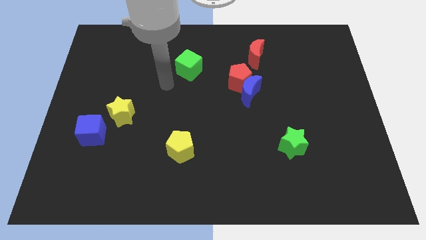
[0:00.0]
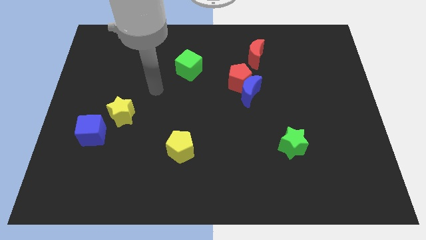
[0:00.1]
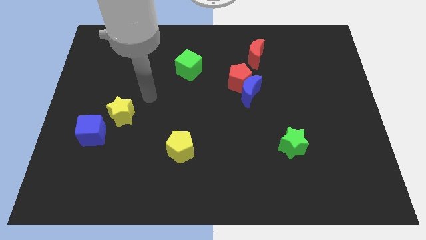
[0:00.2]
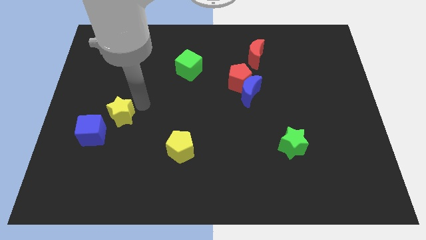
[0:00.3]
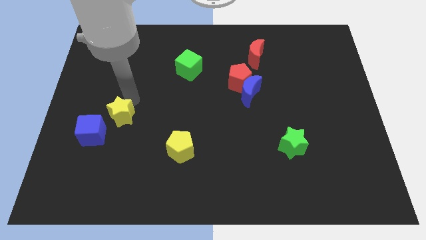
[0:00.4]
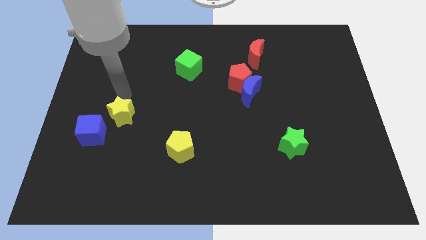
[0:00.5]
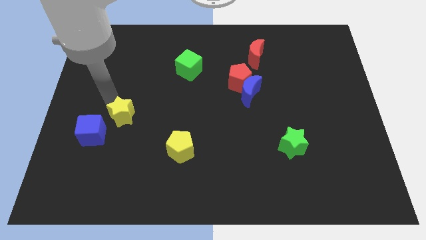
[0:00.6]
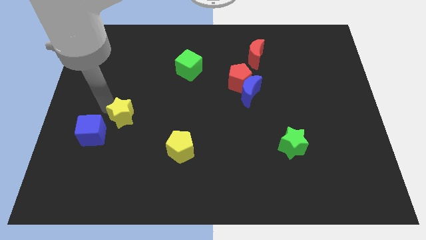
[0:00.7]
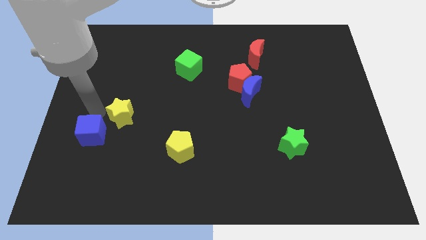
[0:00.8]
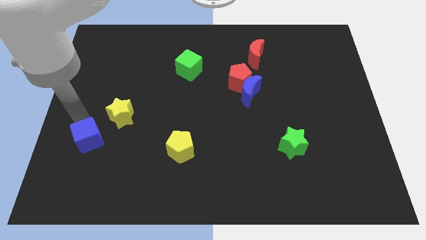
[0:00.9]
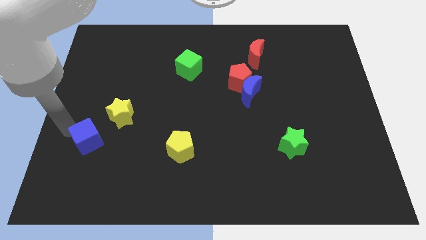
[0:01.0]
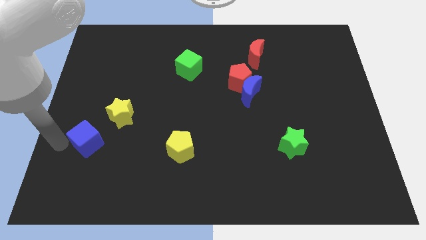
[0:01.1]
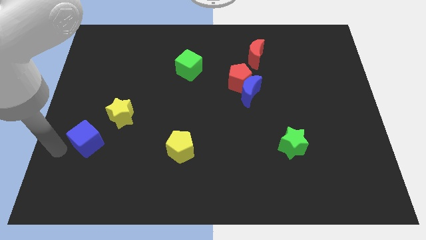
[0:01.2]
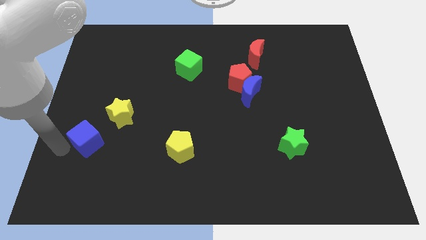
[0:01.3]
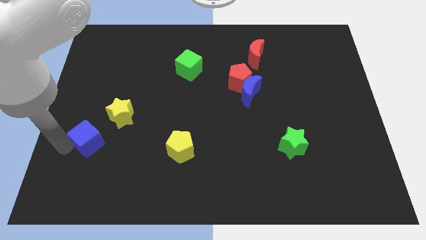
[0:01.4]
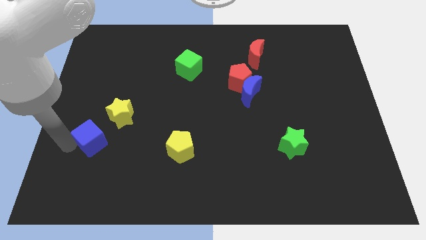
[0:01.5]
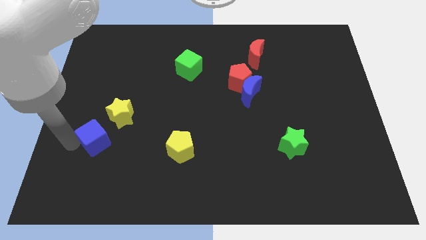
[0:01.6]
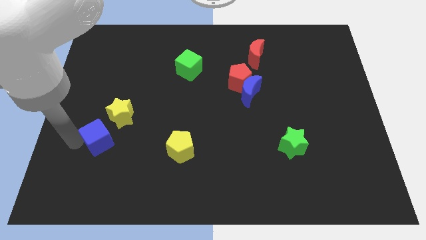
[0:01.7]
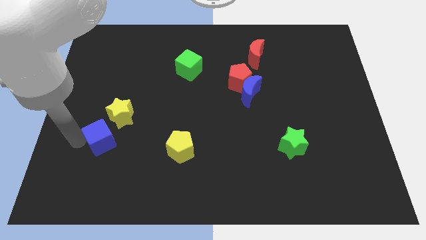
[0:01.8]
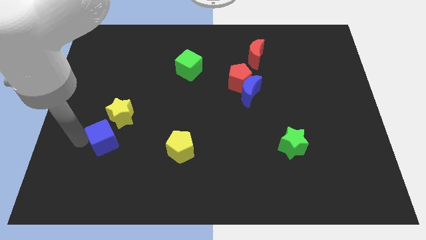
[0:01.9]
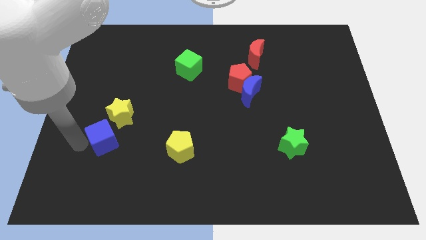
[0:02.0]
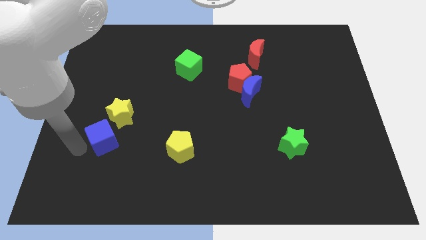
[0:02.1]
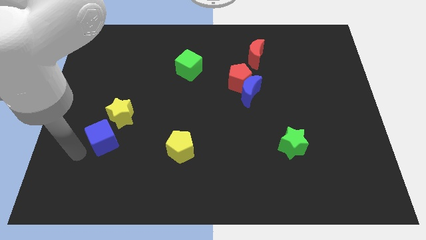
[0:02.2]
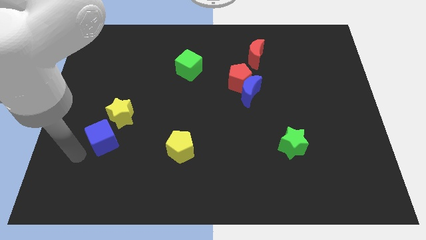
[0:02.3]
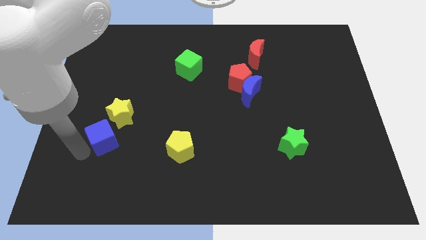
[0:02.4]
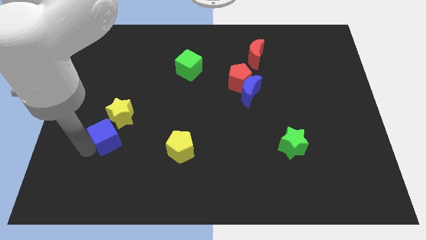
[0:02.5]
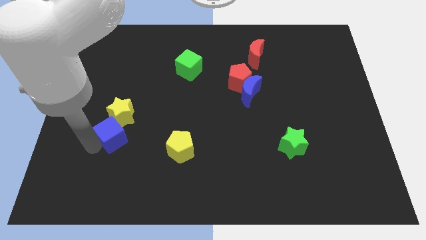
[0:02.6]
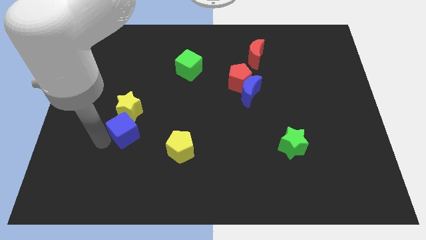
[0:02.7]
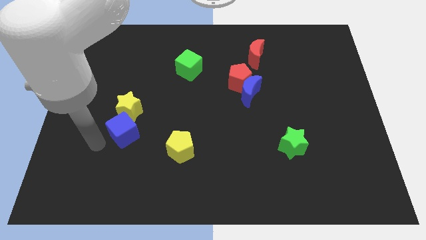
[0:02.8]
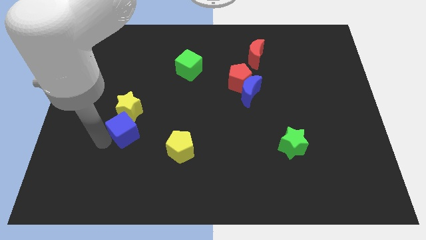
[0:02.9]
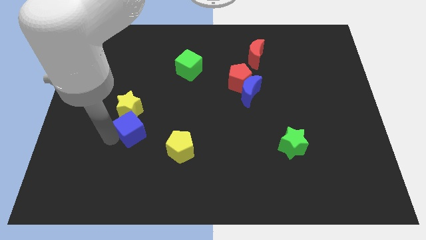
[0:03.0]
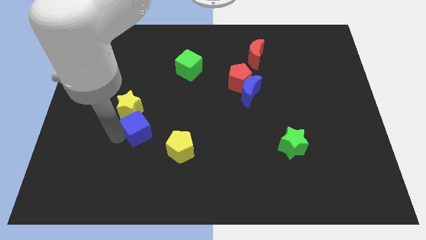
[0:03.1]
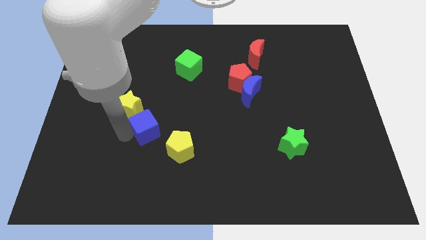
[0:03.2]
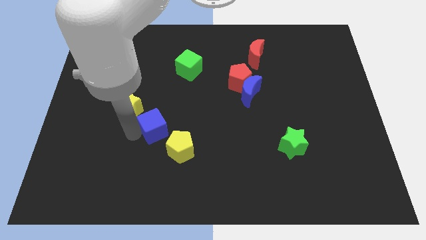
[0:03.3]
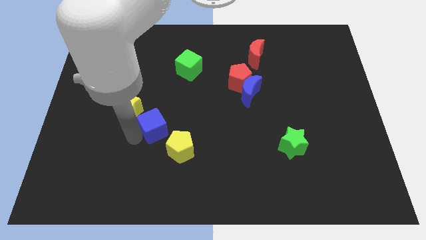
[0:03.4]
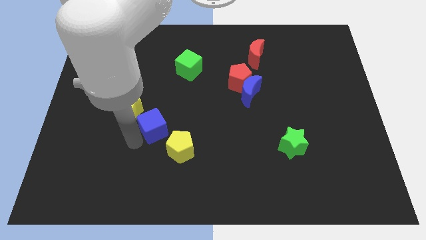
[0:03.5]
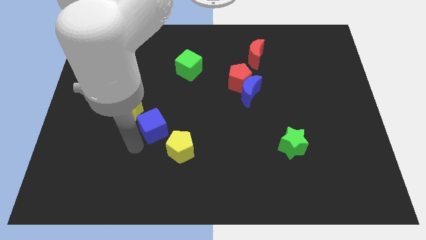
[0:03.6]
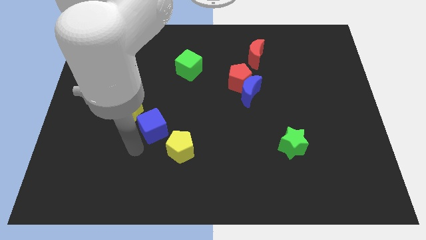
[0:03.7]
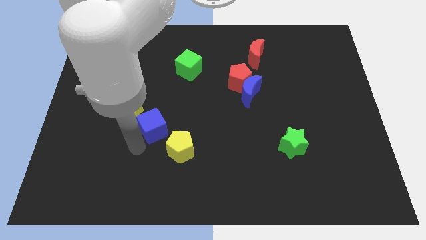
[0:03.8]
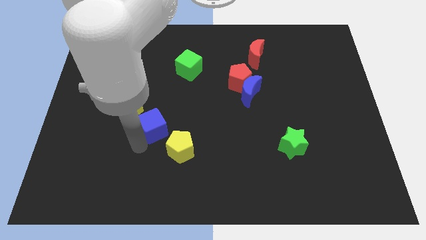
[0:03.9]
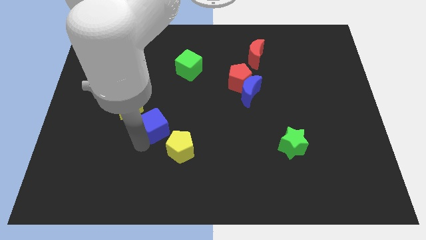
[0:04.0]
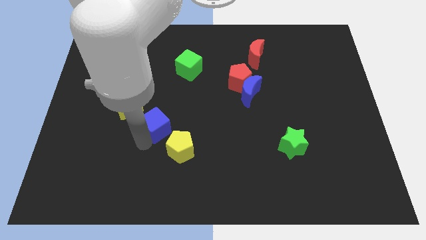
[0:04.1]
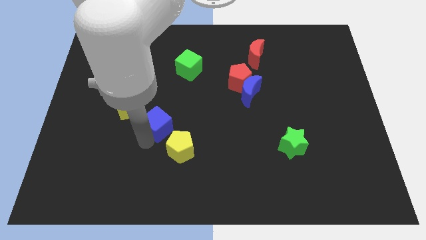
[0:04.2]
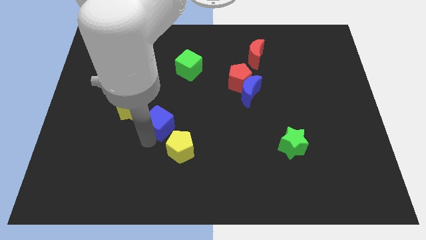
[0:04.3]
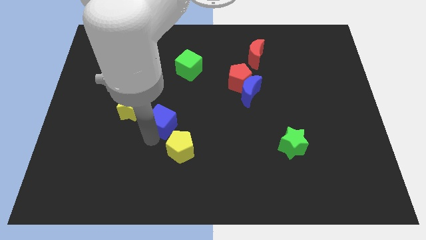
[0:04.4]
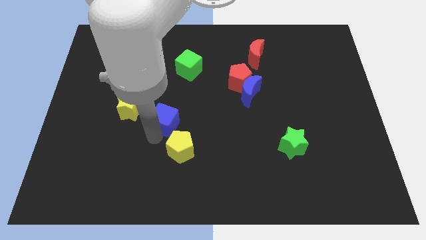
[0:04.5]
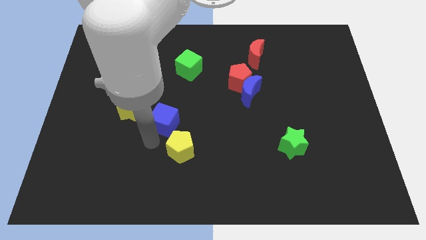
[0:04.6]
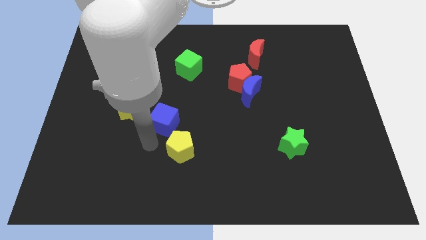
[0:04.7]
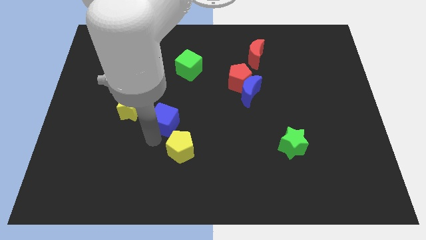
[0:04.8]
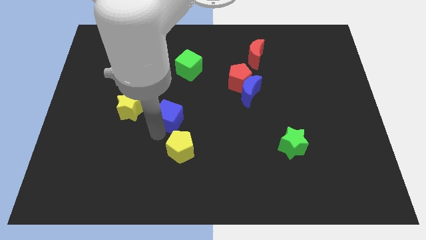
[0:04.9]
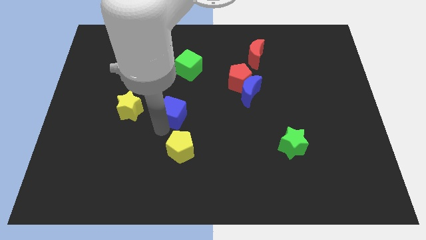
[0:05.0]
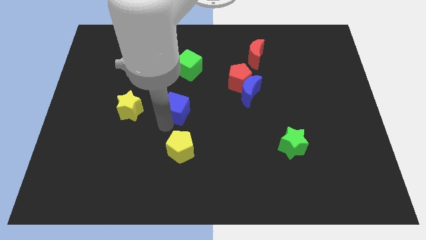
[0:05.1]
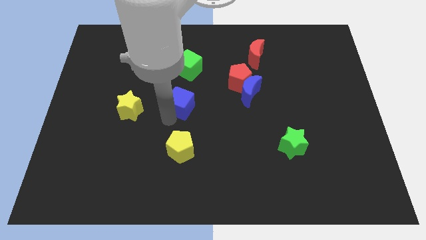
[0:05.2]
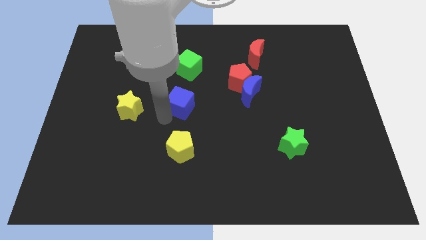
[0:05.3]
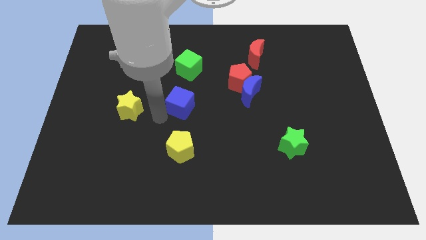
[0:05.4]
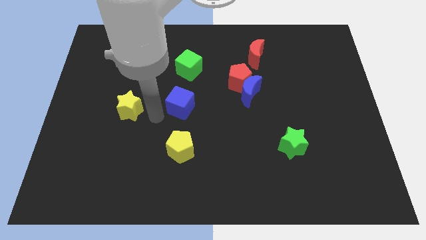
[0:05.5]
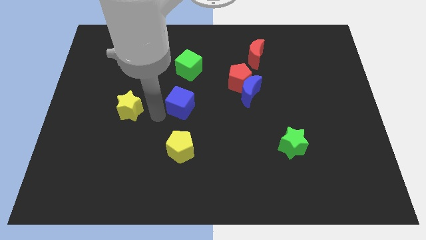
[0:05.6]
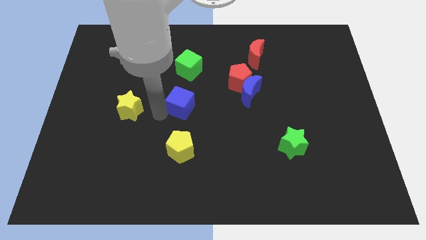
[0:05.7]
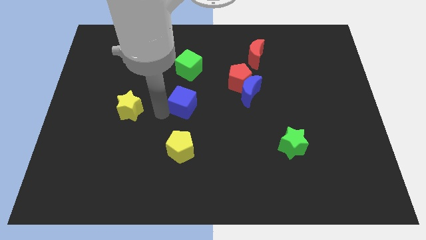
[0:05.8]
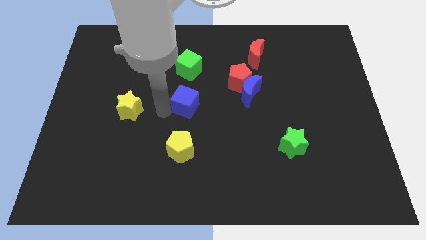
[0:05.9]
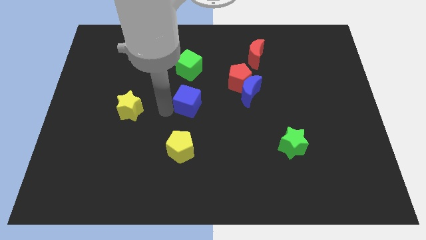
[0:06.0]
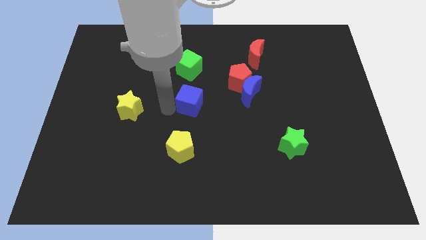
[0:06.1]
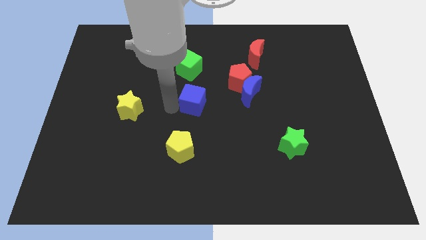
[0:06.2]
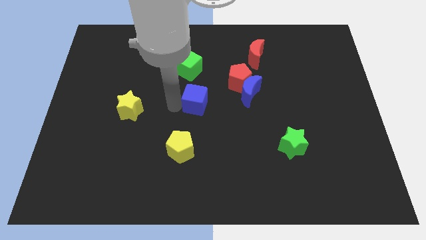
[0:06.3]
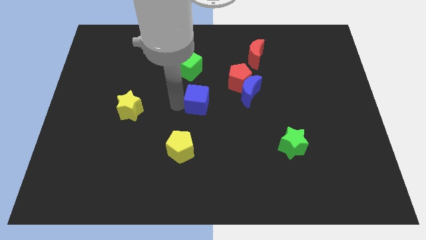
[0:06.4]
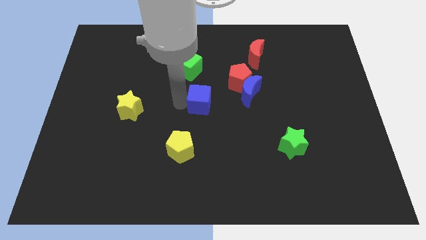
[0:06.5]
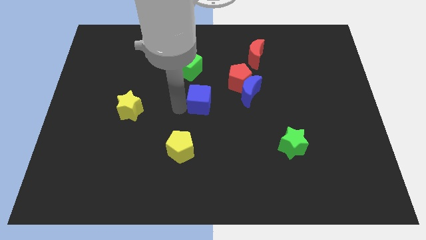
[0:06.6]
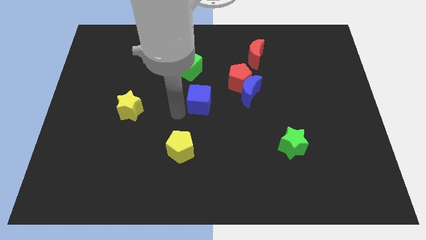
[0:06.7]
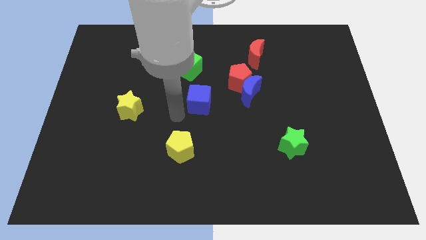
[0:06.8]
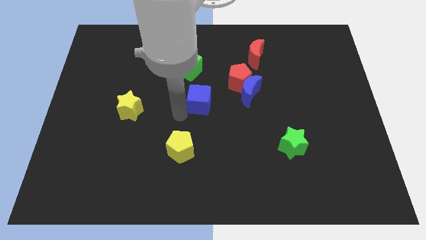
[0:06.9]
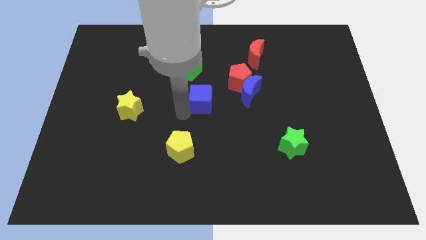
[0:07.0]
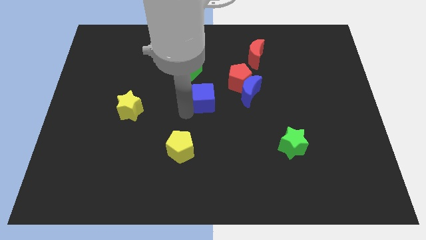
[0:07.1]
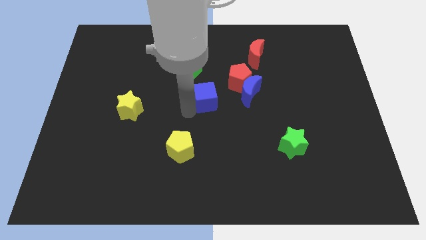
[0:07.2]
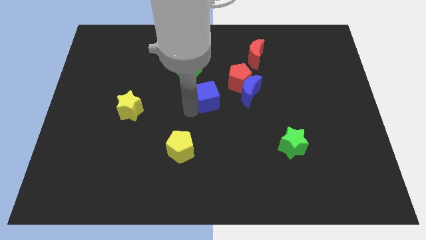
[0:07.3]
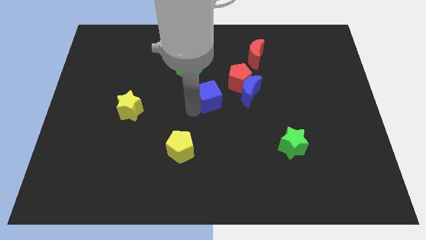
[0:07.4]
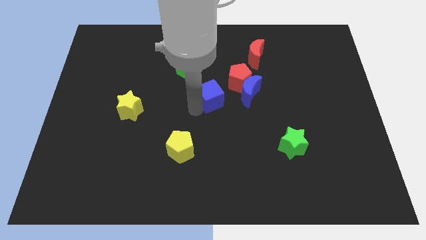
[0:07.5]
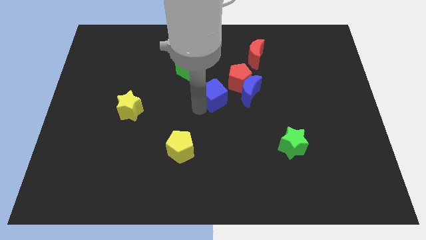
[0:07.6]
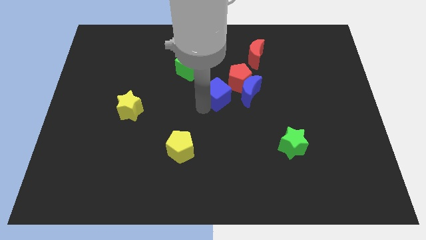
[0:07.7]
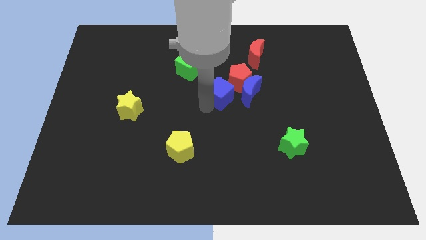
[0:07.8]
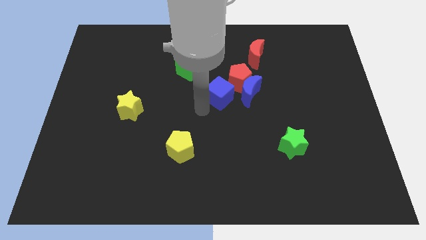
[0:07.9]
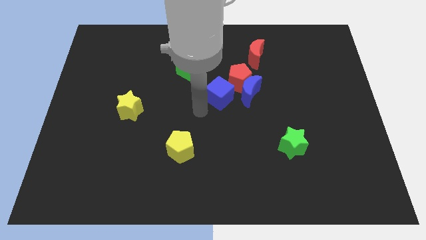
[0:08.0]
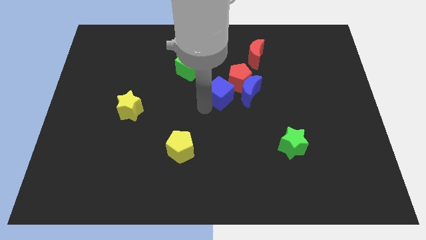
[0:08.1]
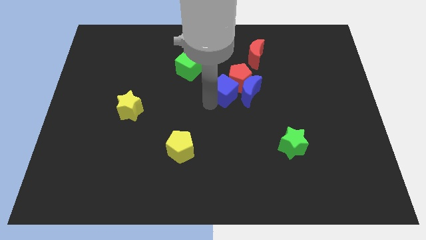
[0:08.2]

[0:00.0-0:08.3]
move the blue cube next to the red pentagon
